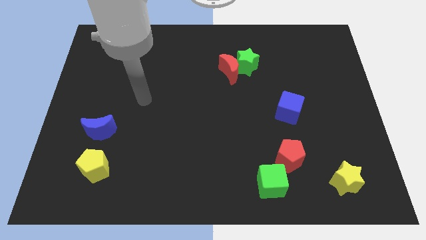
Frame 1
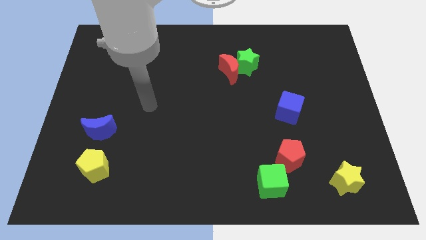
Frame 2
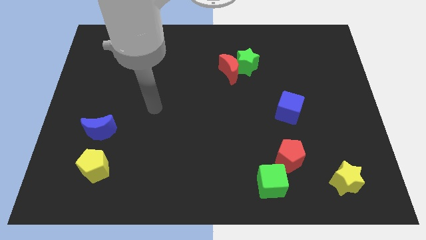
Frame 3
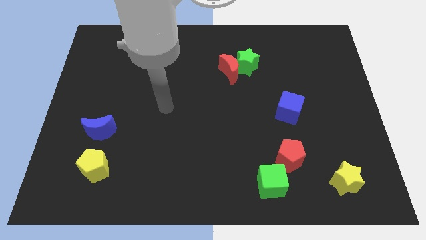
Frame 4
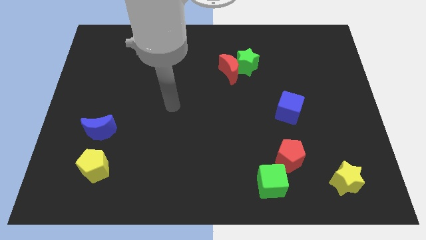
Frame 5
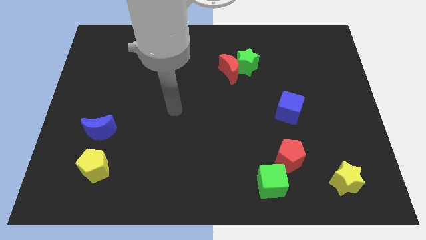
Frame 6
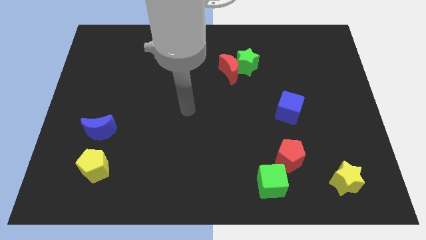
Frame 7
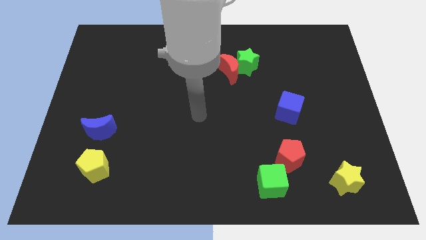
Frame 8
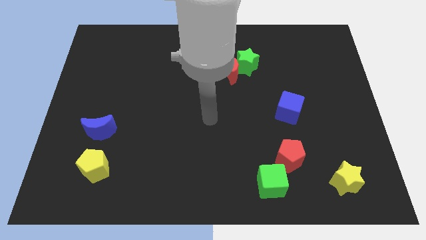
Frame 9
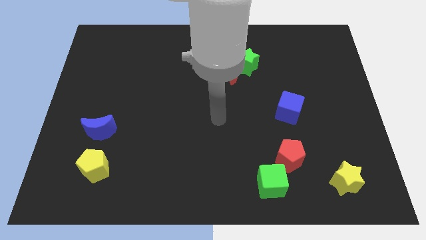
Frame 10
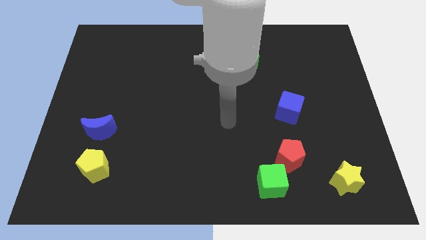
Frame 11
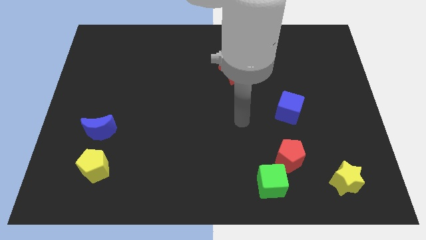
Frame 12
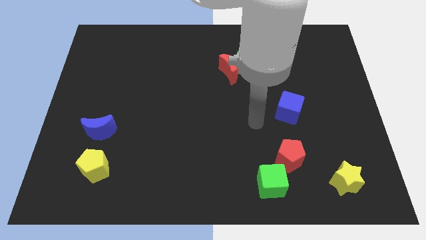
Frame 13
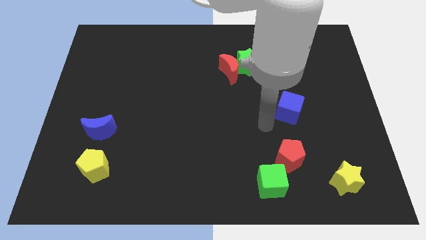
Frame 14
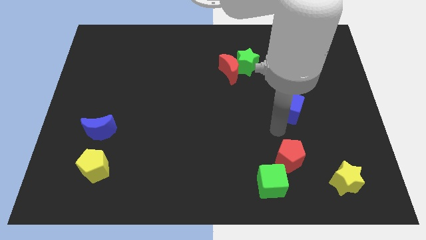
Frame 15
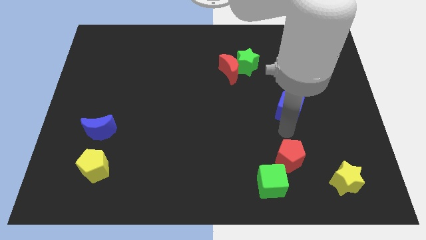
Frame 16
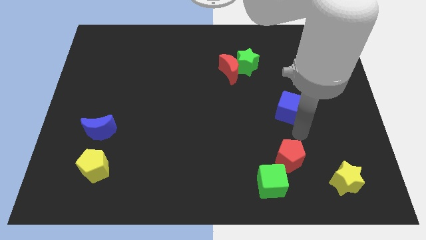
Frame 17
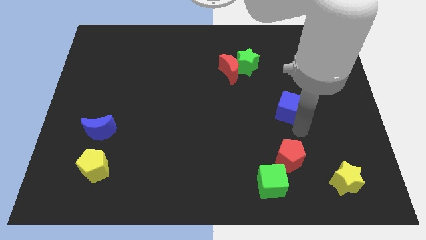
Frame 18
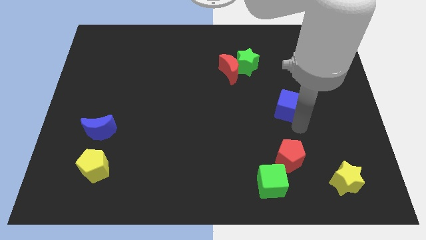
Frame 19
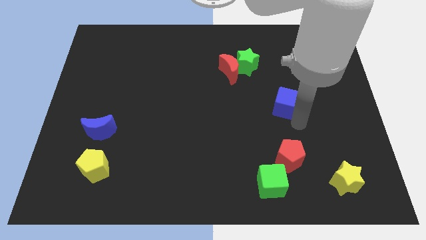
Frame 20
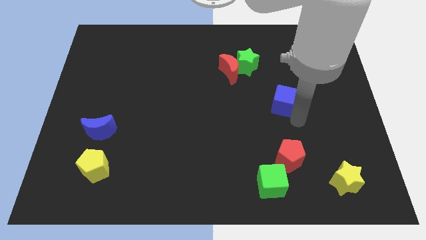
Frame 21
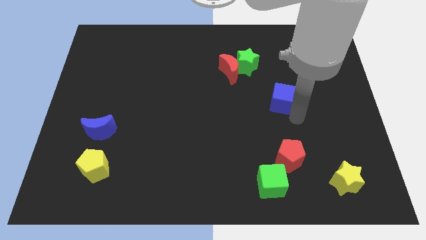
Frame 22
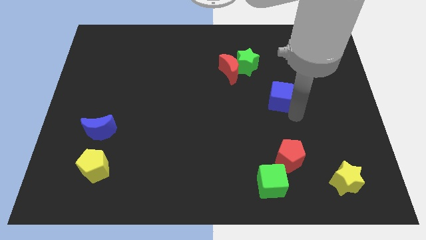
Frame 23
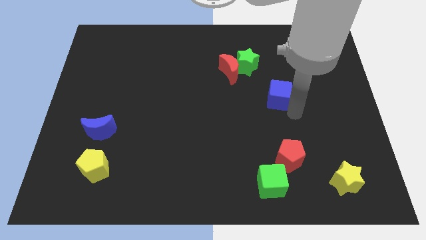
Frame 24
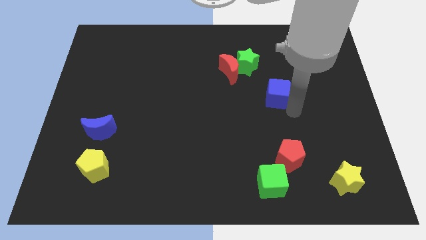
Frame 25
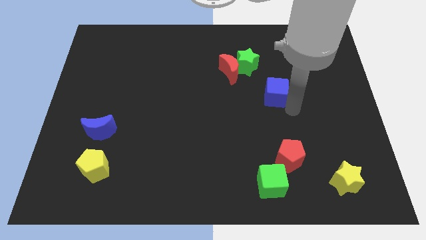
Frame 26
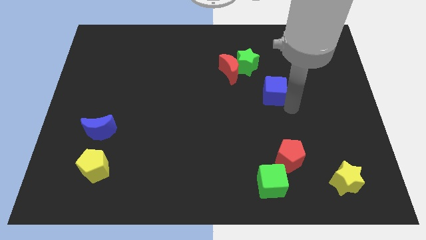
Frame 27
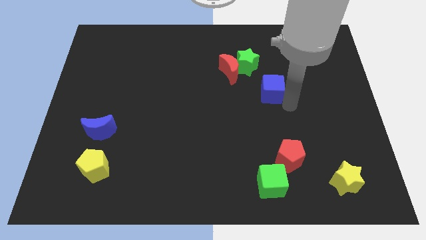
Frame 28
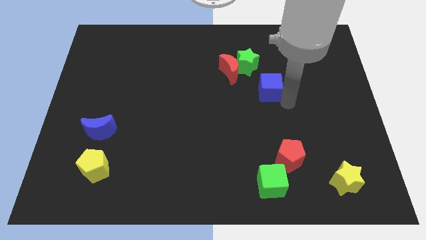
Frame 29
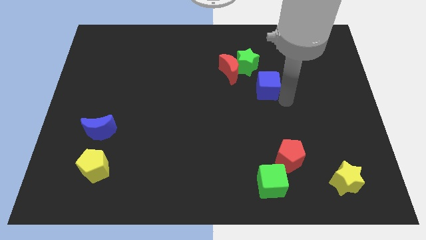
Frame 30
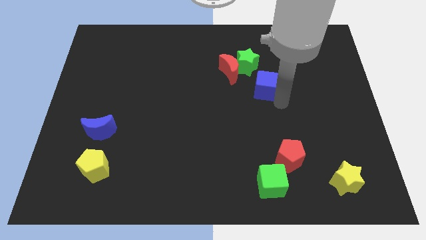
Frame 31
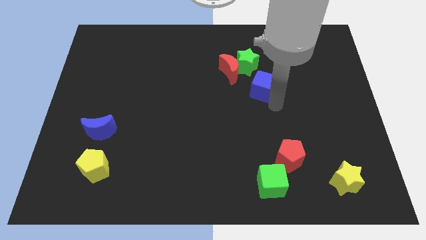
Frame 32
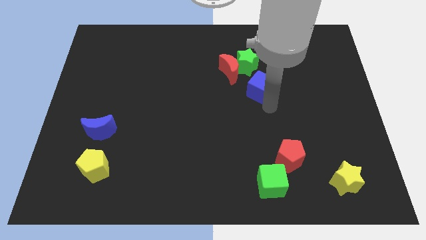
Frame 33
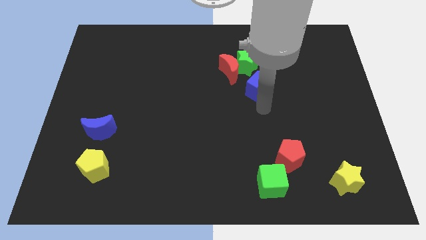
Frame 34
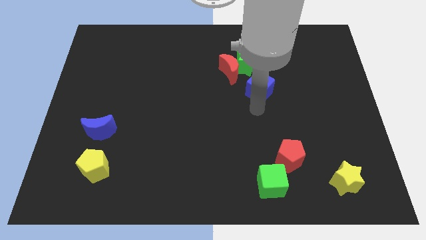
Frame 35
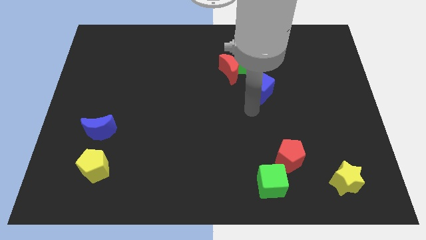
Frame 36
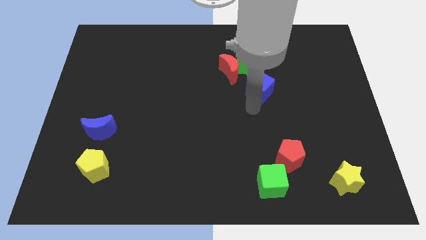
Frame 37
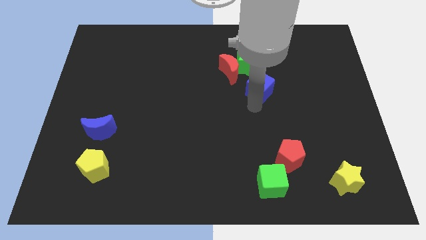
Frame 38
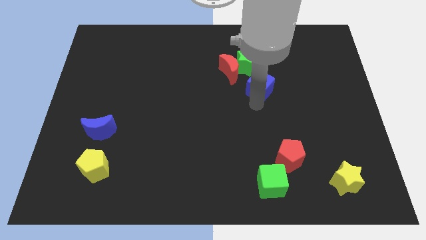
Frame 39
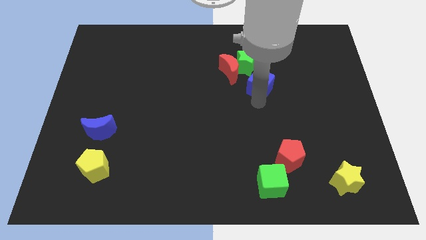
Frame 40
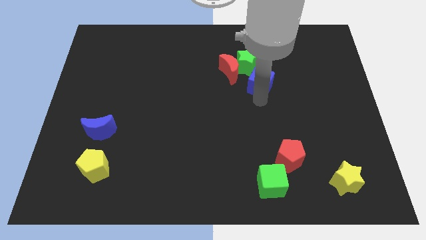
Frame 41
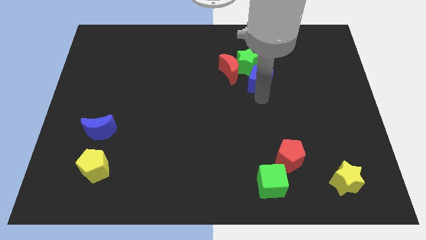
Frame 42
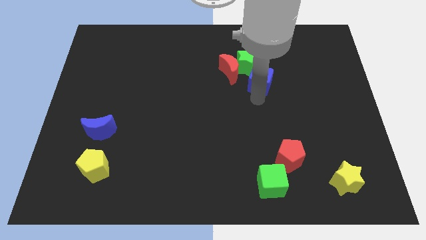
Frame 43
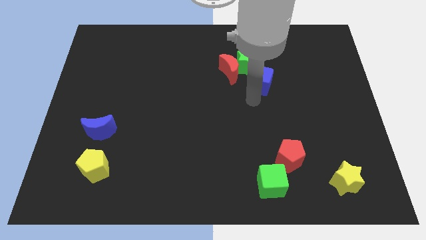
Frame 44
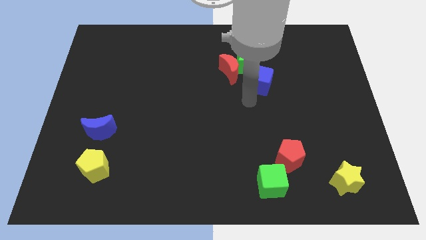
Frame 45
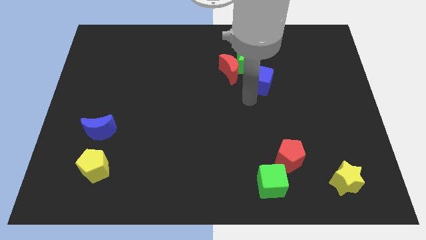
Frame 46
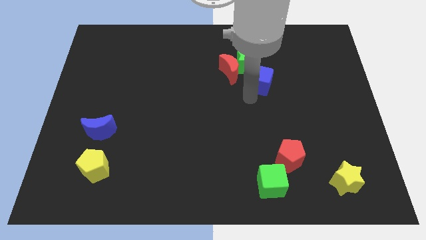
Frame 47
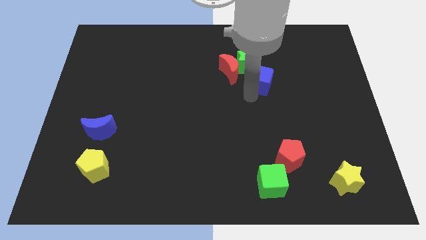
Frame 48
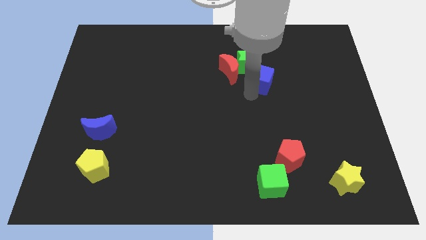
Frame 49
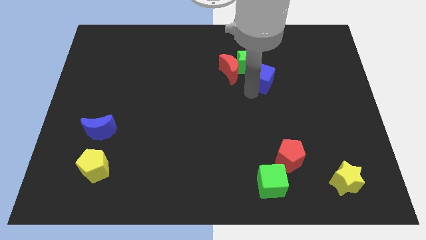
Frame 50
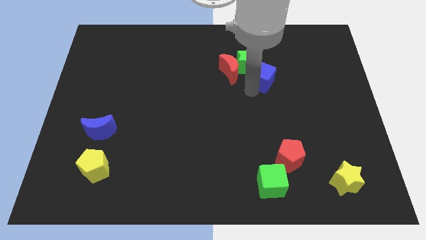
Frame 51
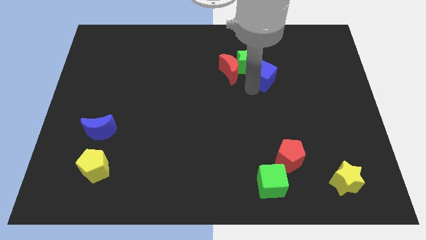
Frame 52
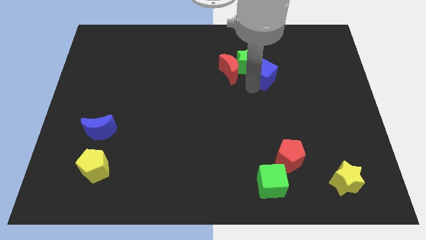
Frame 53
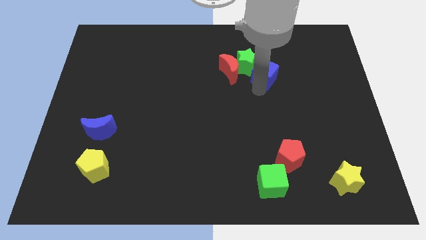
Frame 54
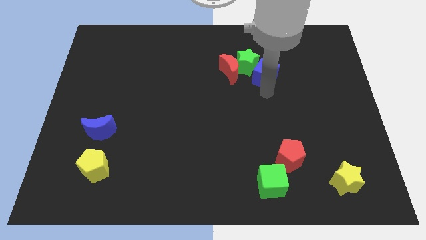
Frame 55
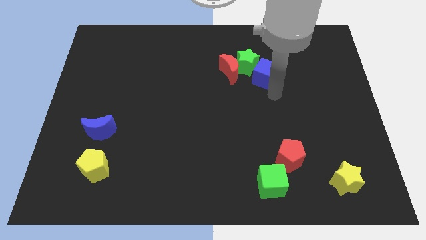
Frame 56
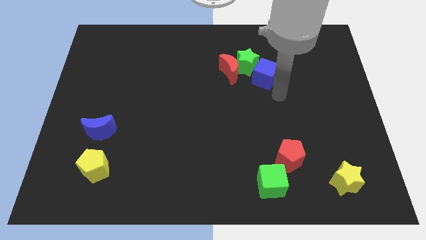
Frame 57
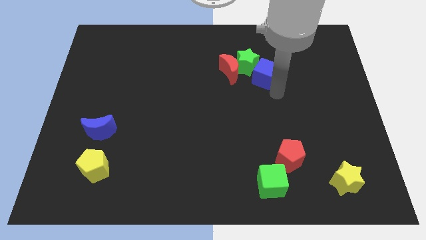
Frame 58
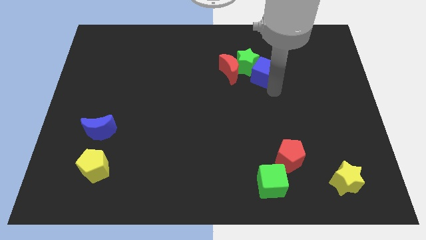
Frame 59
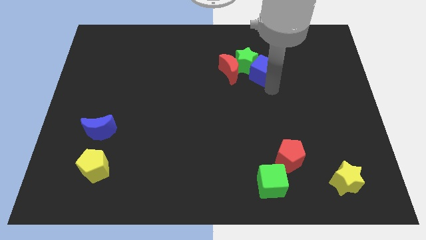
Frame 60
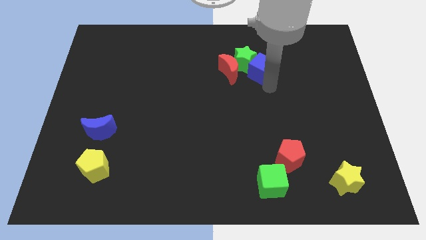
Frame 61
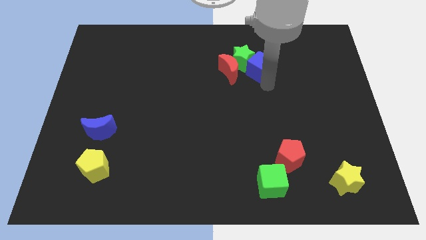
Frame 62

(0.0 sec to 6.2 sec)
move the blue cube diagonally up and to the right of the red moon
